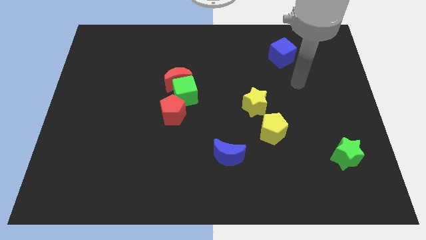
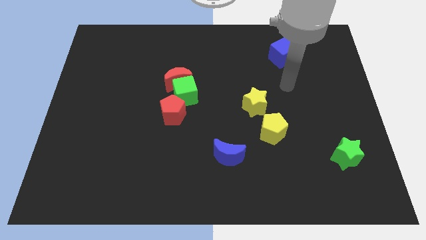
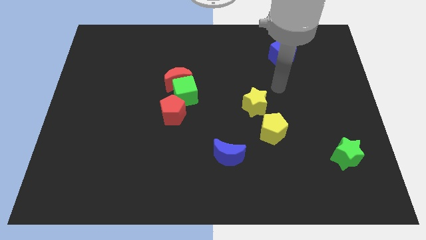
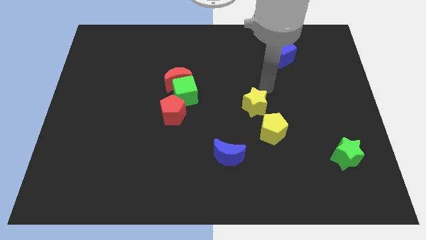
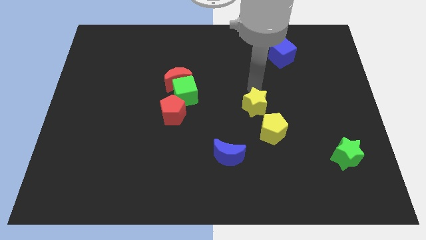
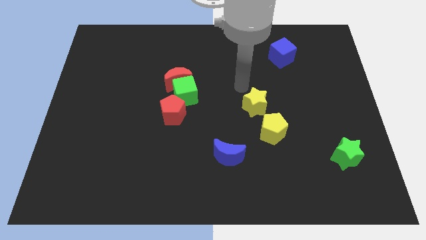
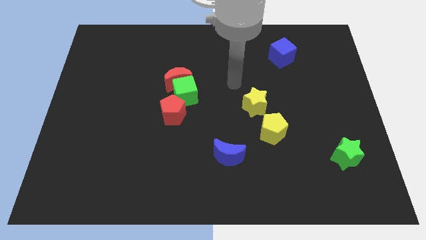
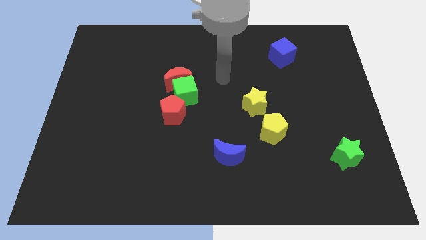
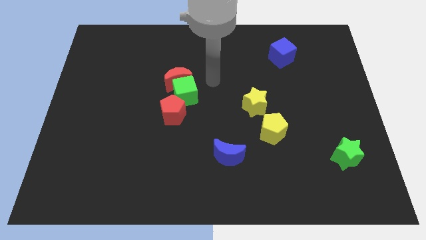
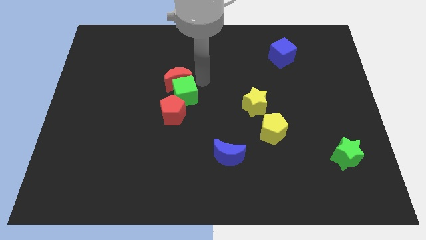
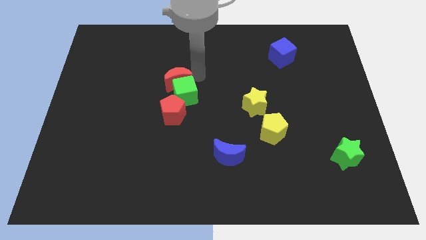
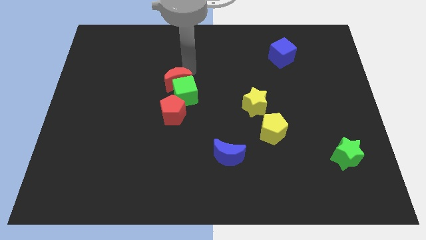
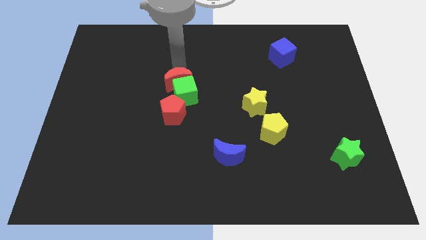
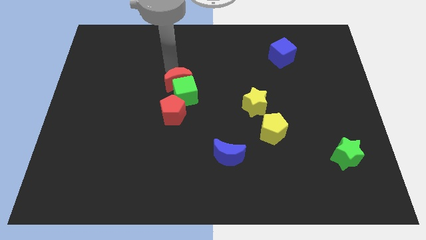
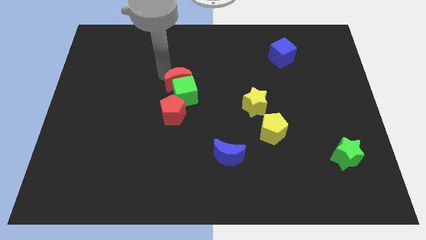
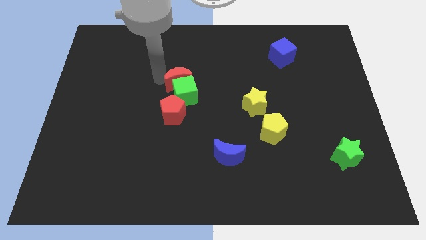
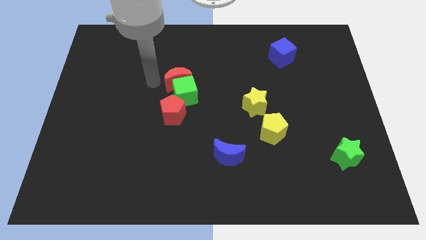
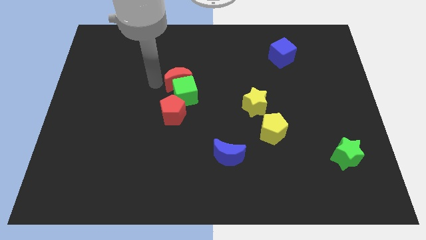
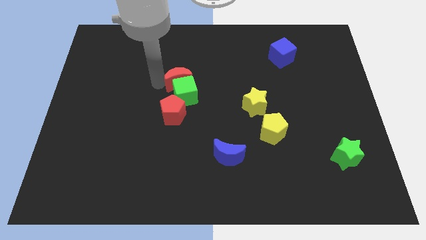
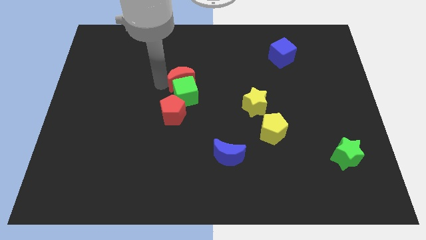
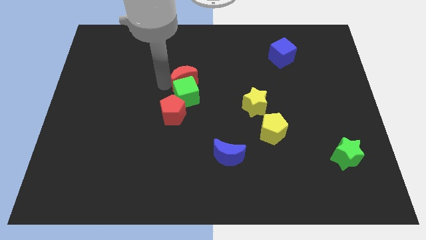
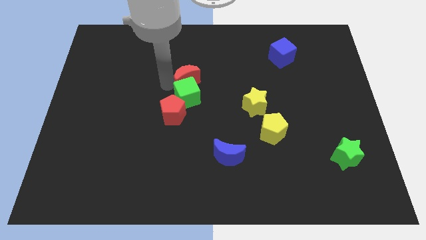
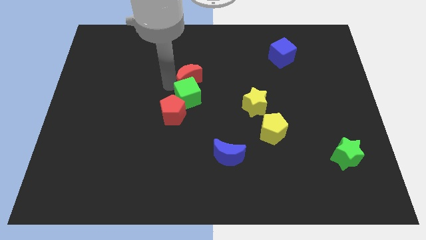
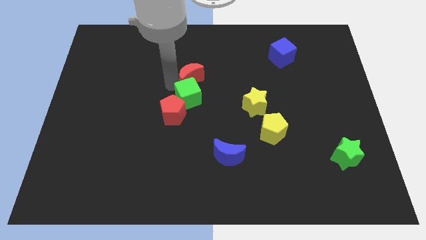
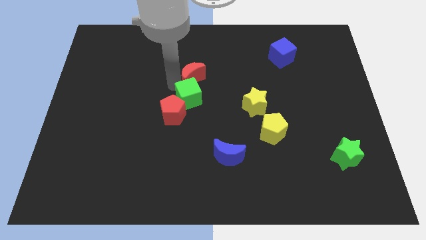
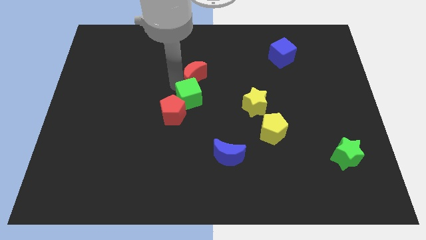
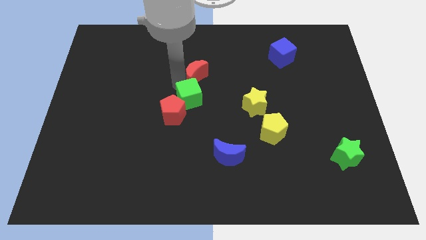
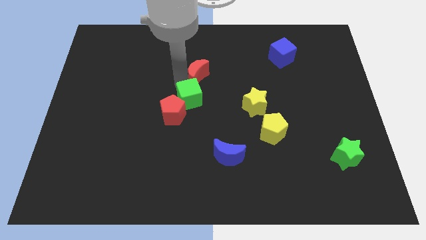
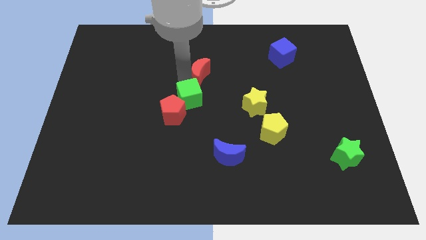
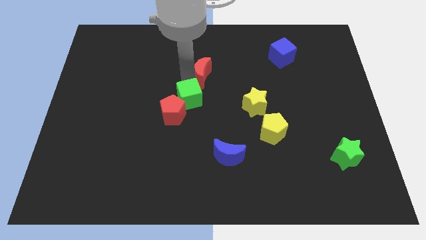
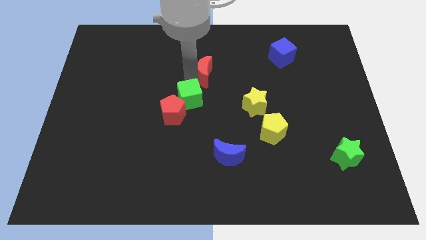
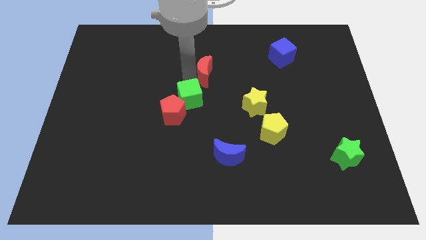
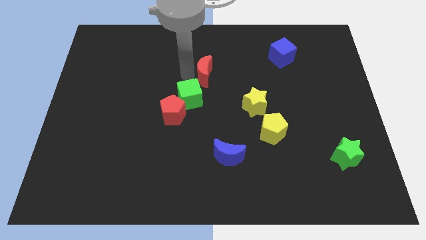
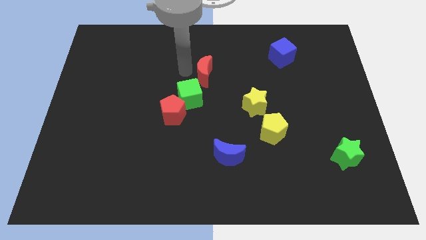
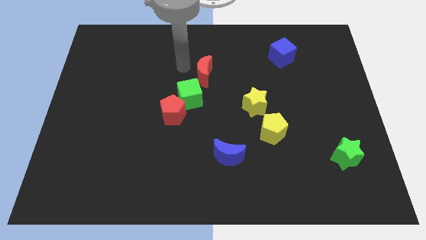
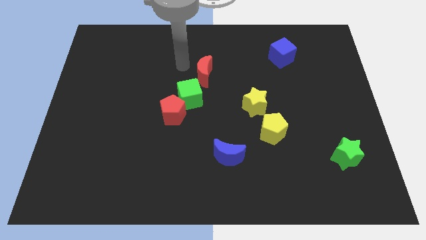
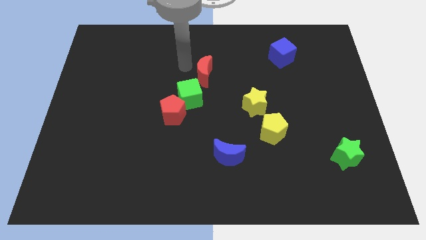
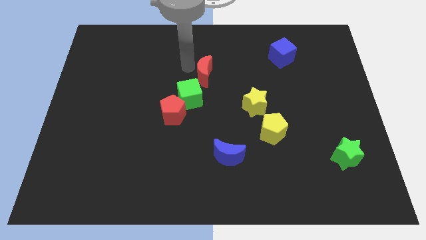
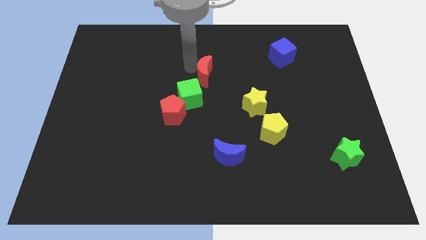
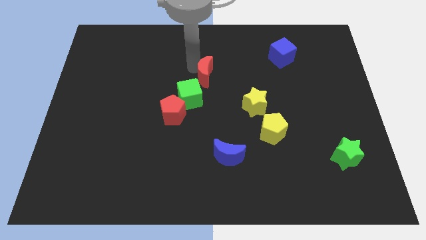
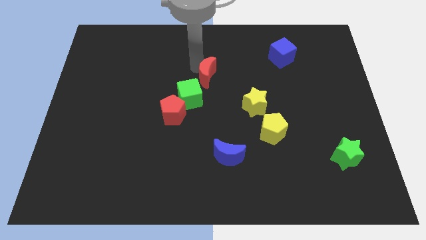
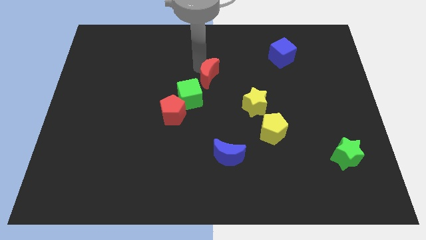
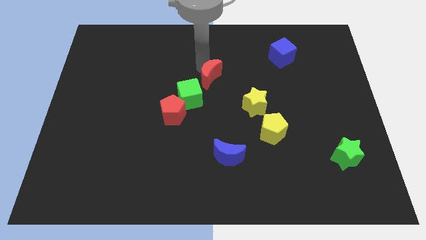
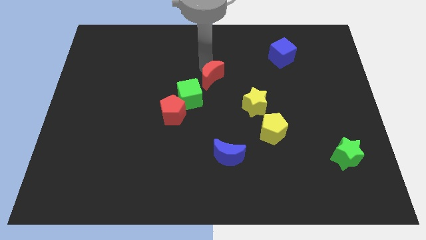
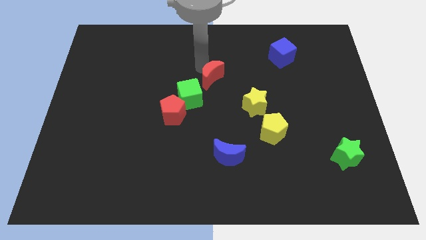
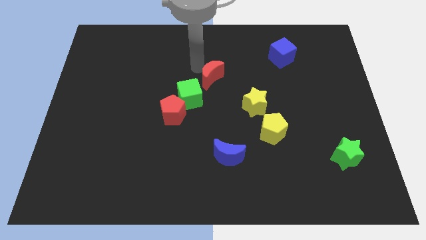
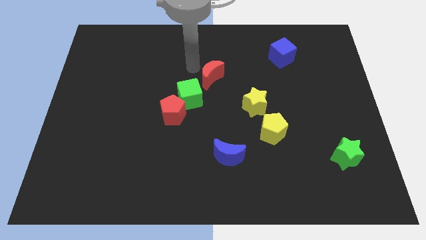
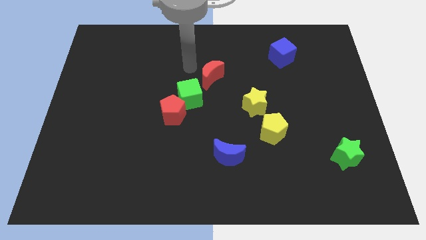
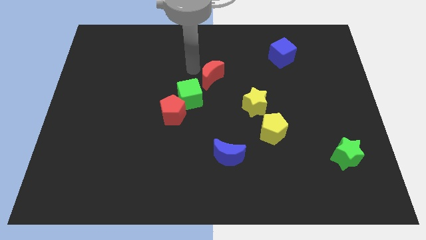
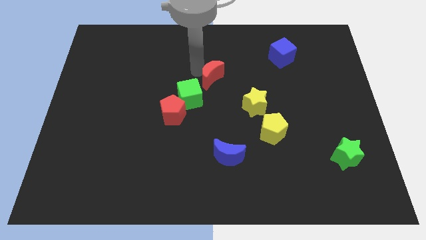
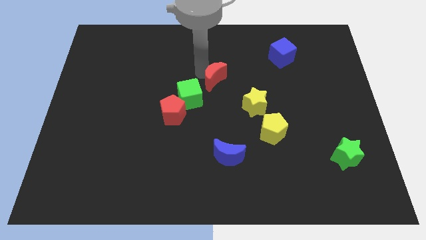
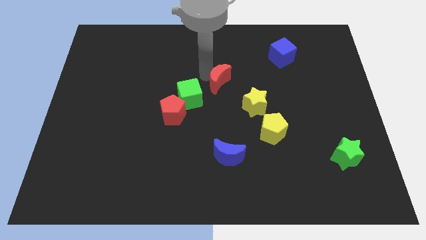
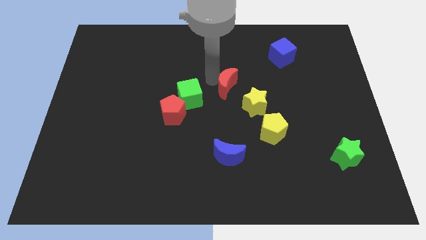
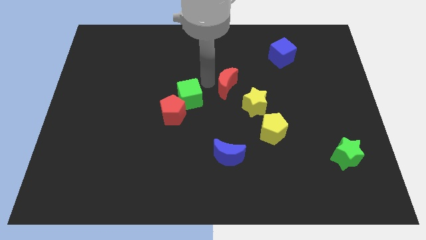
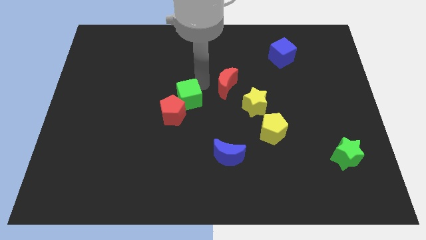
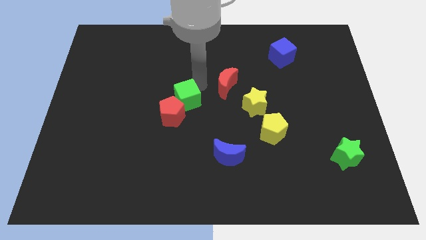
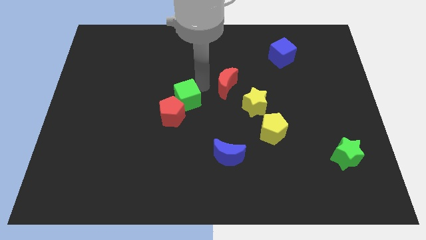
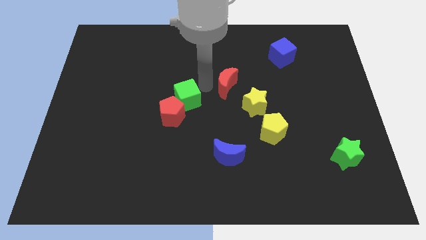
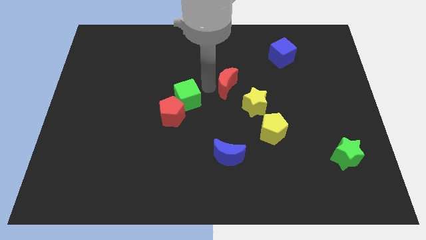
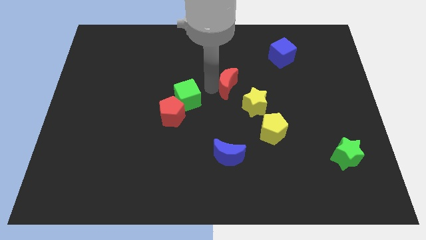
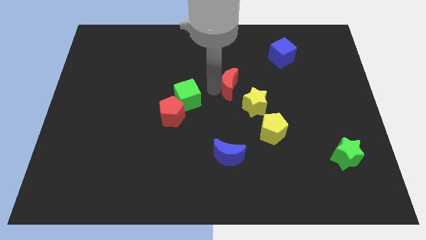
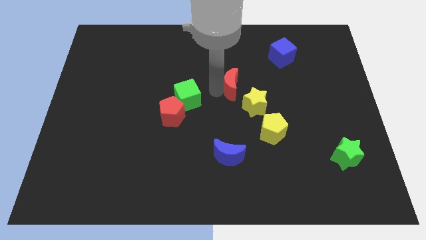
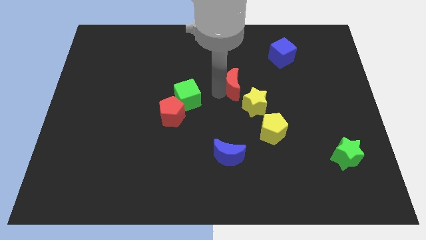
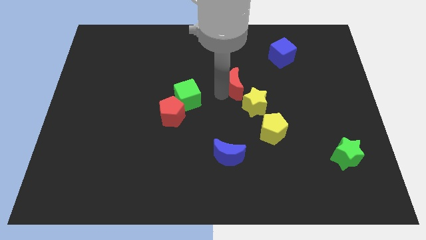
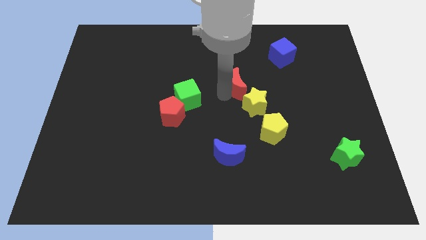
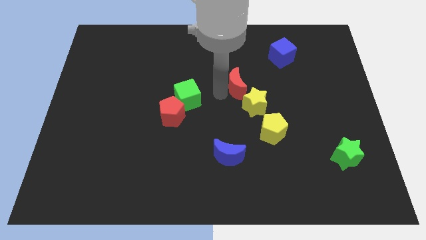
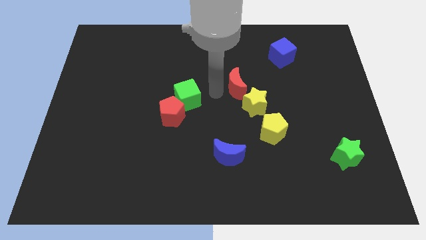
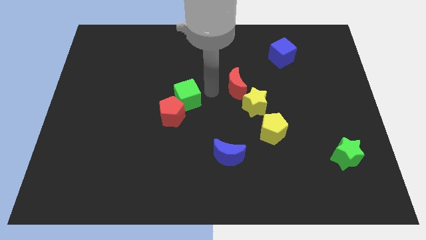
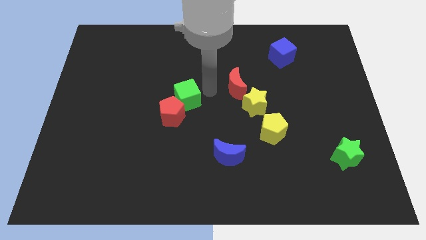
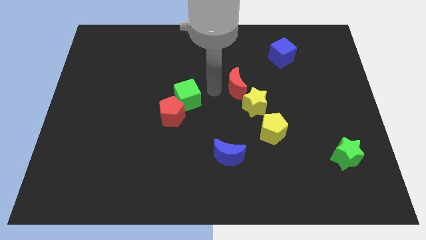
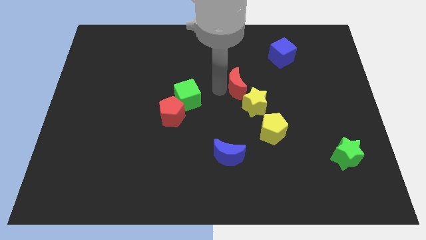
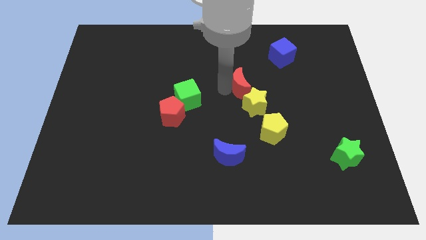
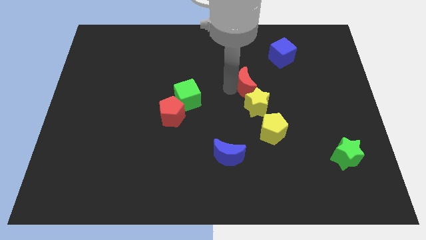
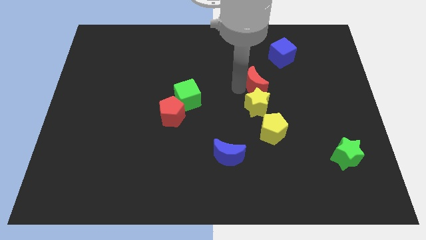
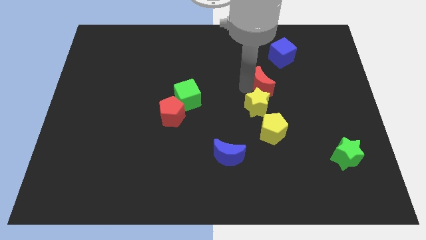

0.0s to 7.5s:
slide the red moon to the right

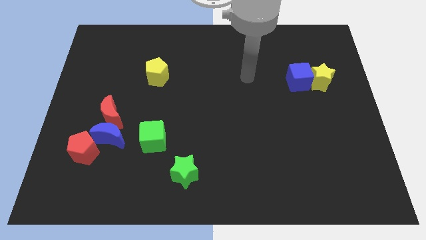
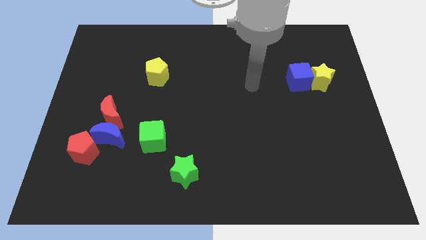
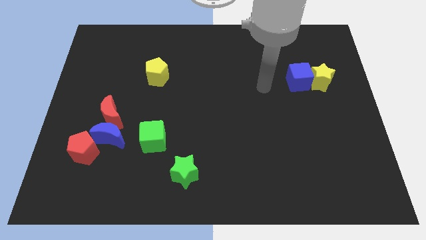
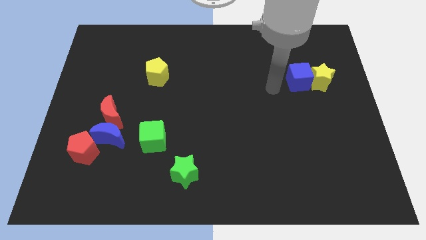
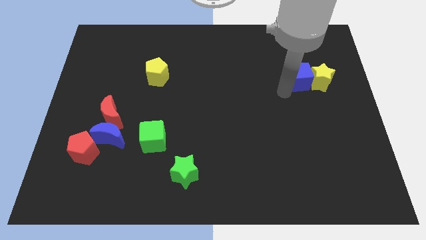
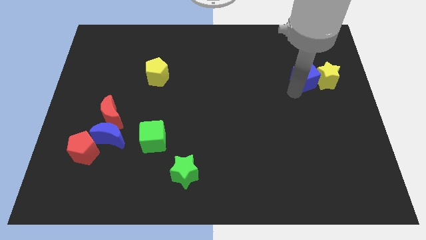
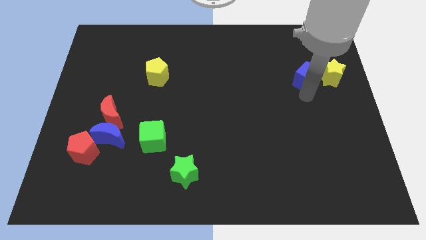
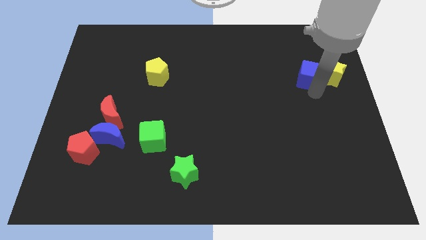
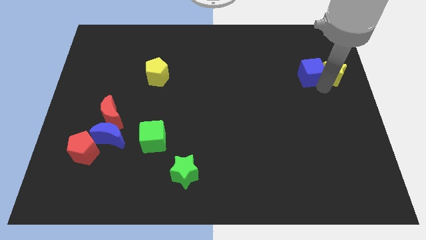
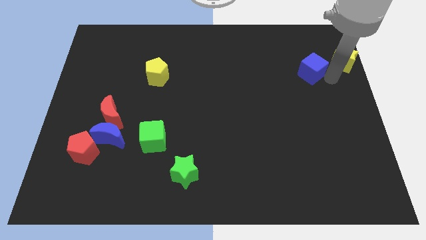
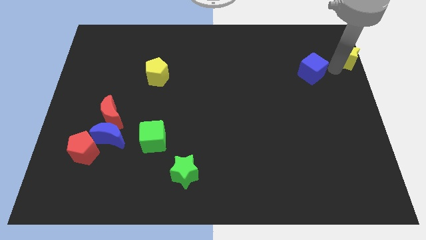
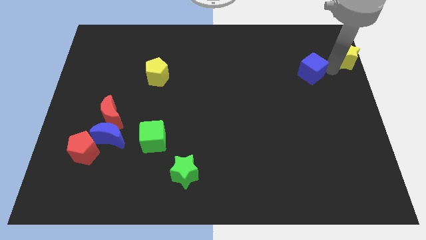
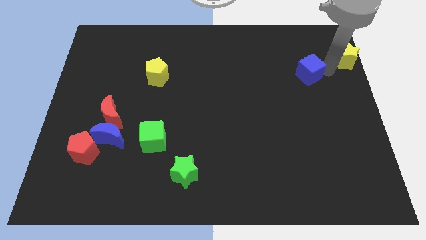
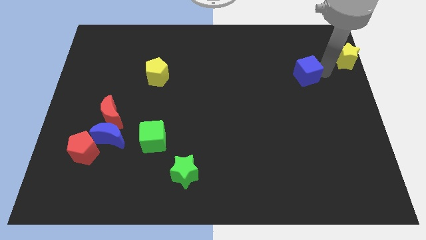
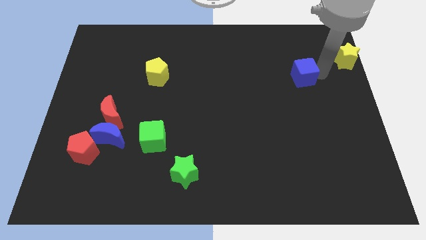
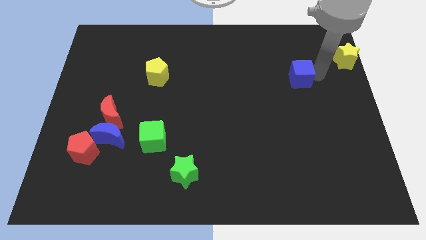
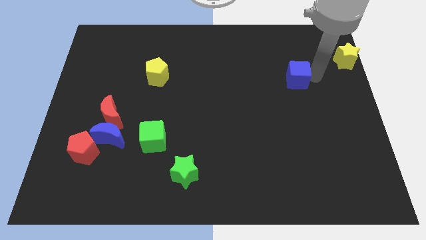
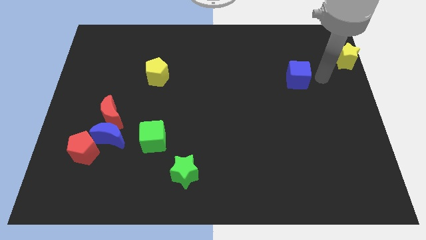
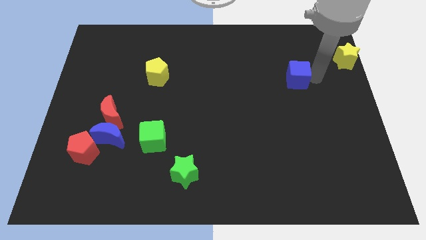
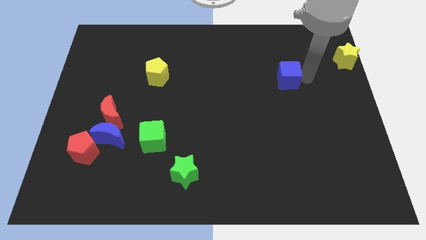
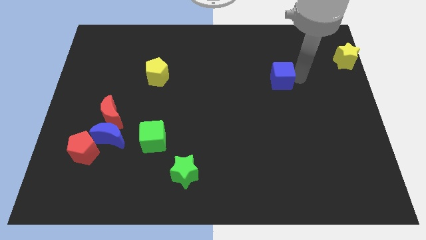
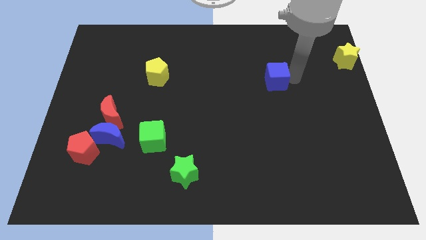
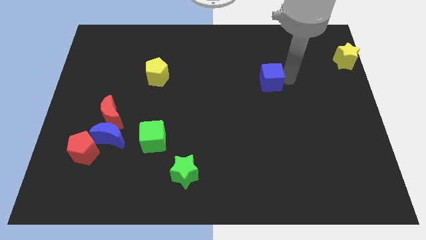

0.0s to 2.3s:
push the blue cube to the left a bit
